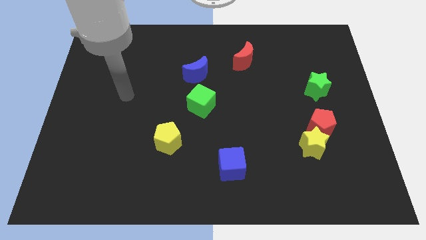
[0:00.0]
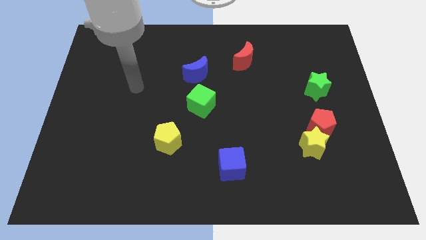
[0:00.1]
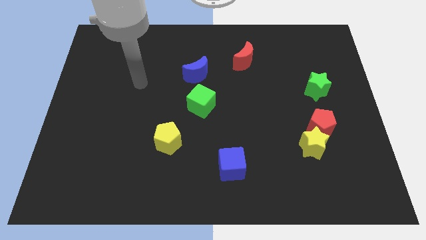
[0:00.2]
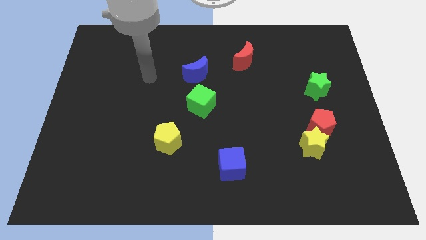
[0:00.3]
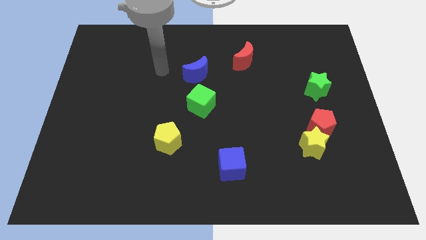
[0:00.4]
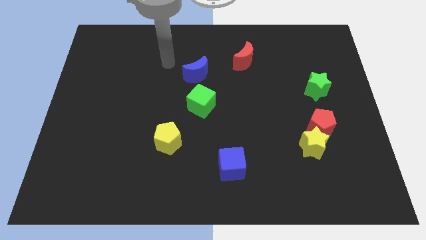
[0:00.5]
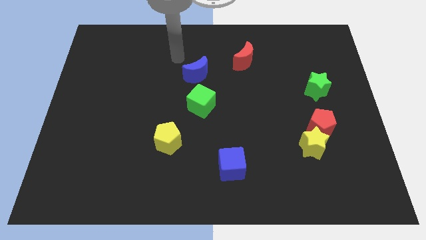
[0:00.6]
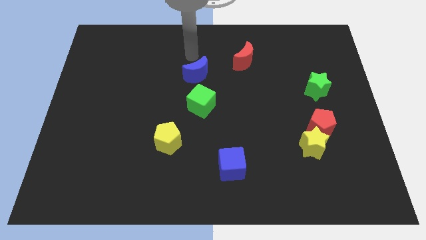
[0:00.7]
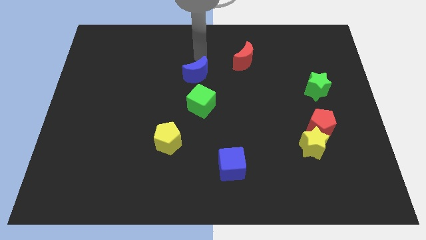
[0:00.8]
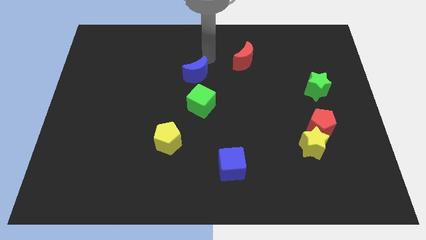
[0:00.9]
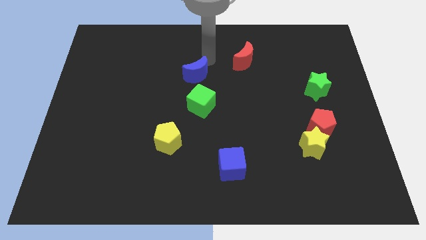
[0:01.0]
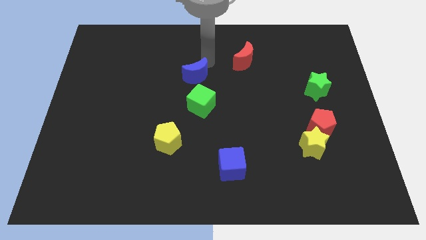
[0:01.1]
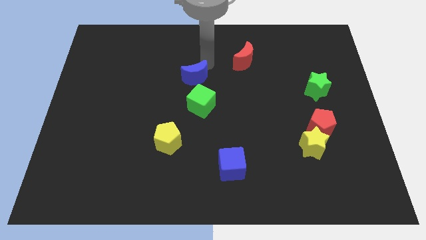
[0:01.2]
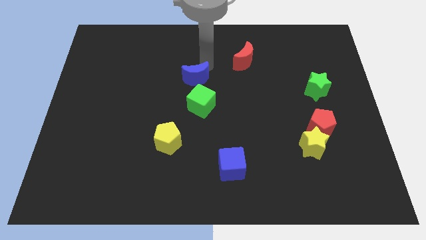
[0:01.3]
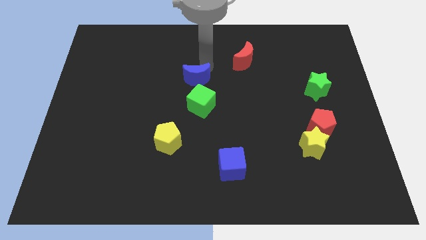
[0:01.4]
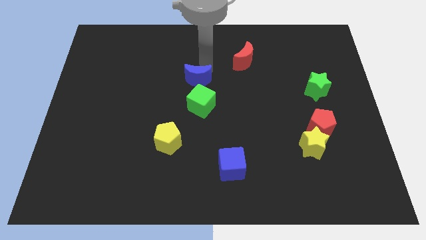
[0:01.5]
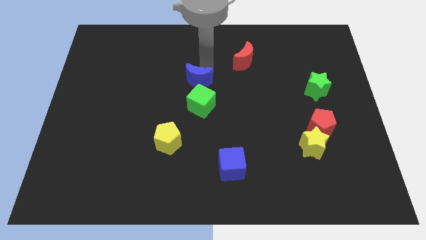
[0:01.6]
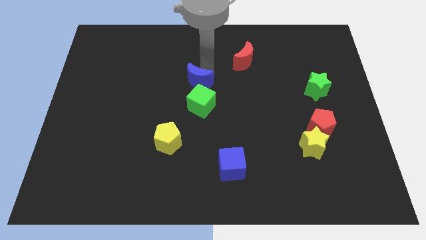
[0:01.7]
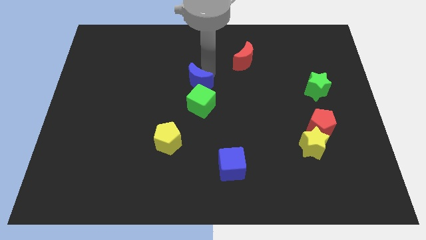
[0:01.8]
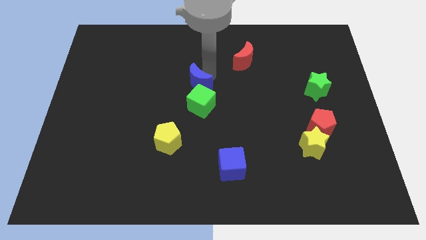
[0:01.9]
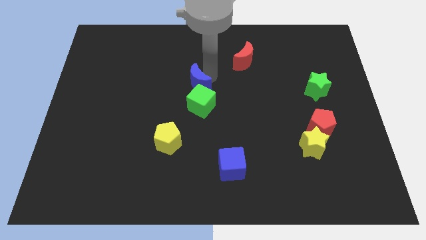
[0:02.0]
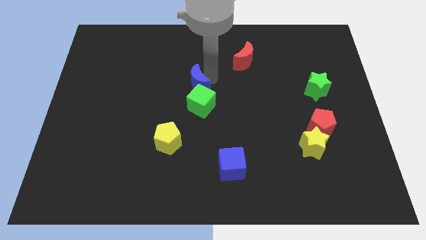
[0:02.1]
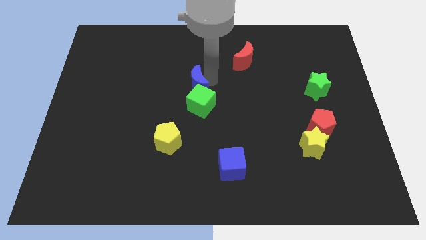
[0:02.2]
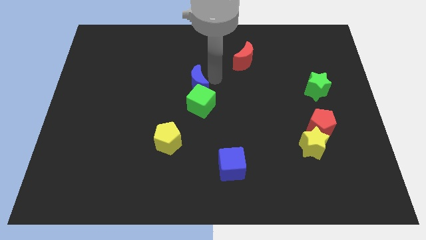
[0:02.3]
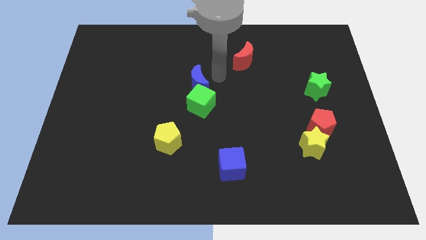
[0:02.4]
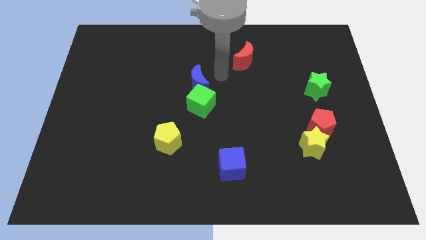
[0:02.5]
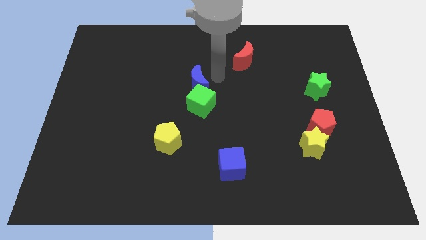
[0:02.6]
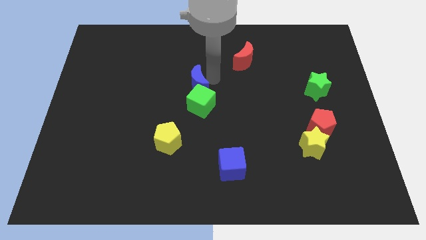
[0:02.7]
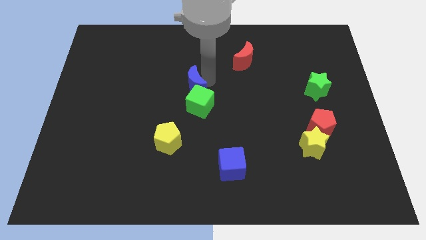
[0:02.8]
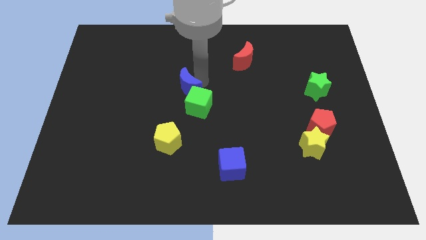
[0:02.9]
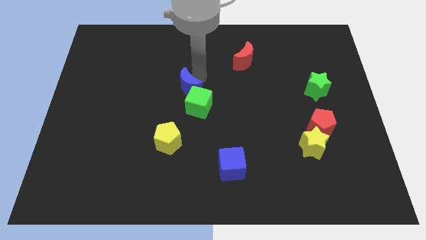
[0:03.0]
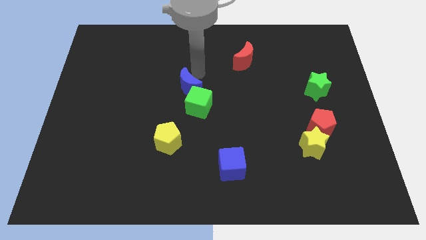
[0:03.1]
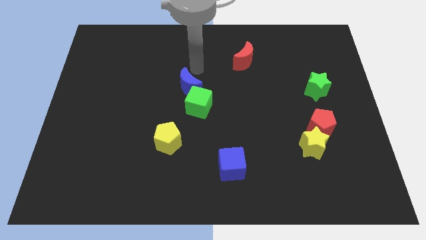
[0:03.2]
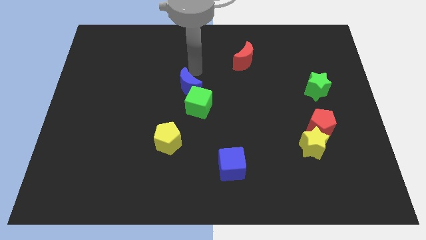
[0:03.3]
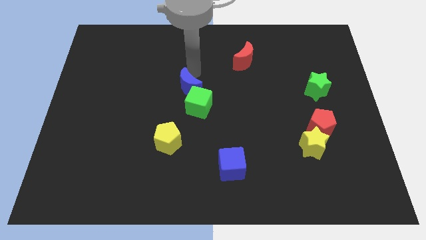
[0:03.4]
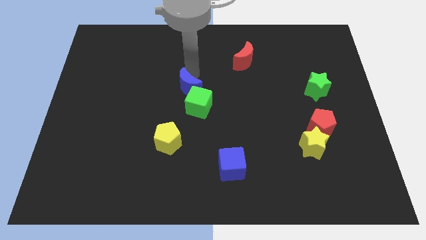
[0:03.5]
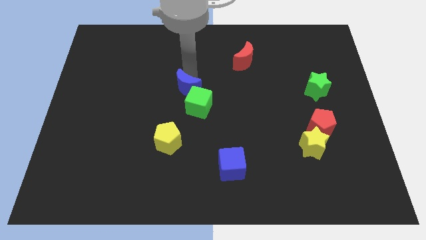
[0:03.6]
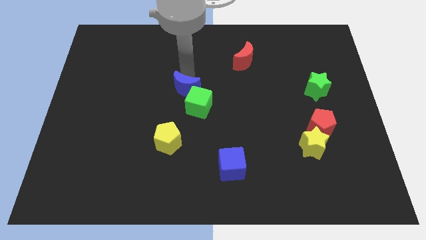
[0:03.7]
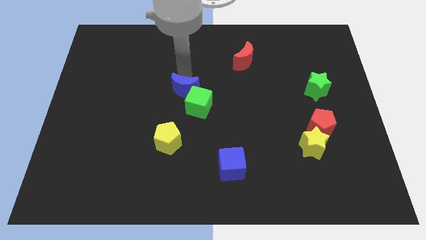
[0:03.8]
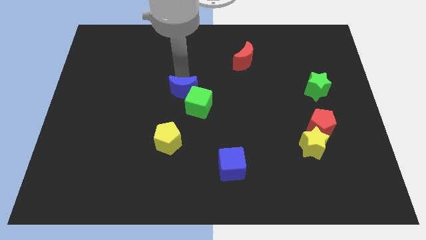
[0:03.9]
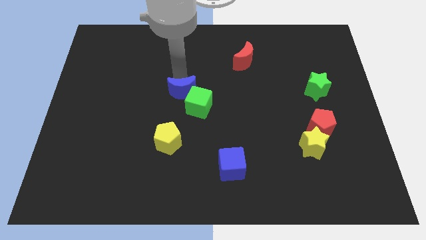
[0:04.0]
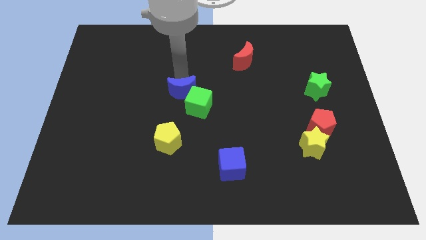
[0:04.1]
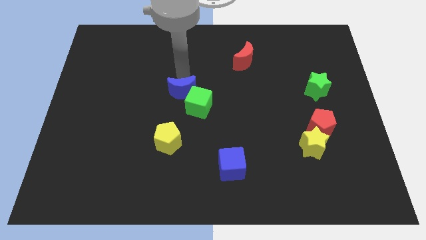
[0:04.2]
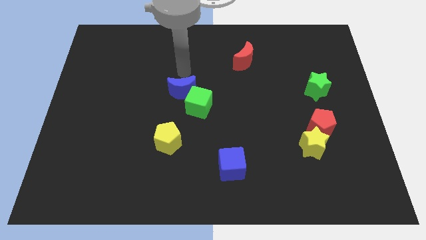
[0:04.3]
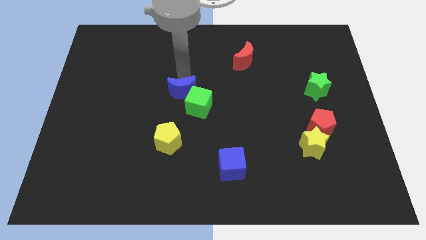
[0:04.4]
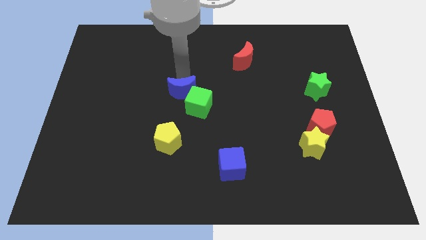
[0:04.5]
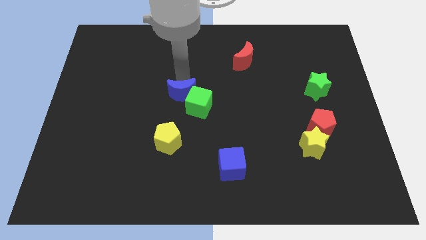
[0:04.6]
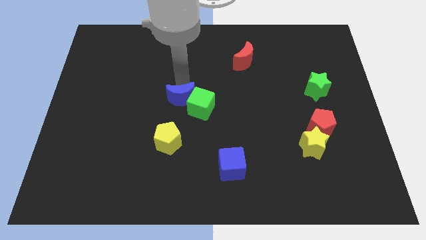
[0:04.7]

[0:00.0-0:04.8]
push the blue moon a bit downwards

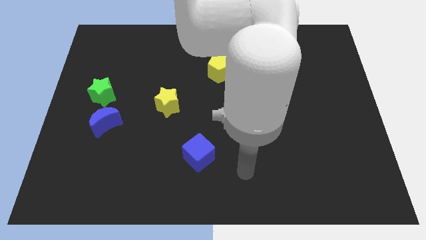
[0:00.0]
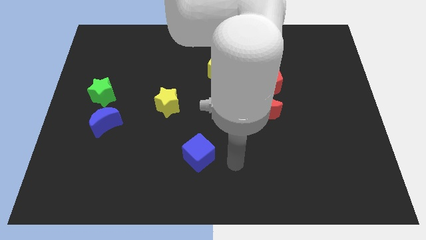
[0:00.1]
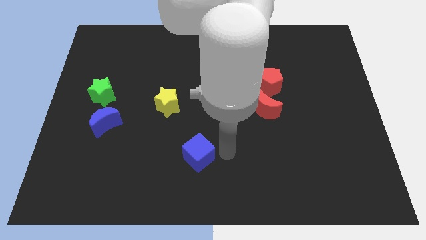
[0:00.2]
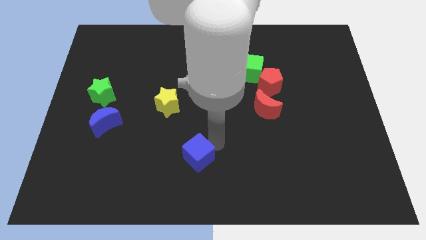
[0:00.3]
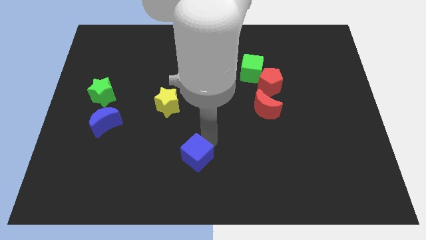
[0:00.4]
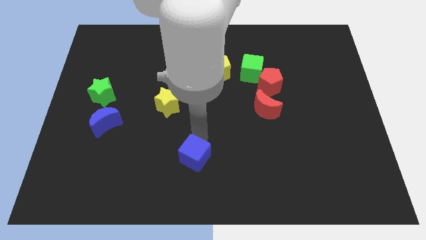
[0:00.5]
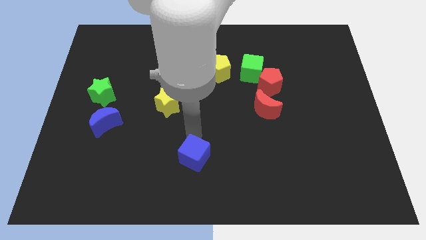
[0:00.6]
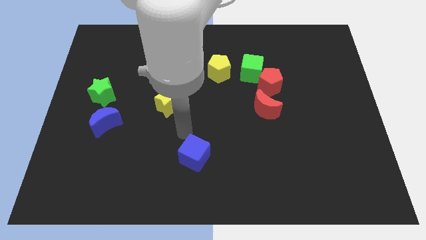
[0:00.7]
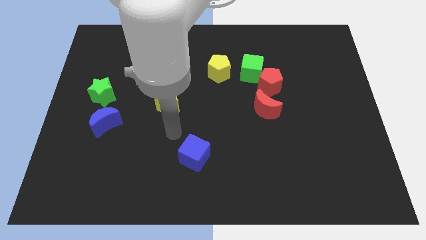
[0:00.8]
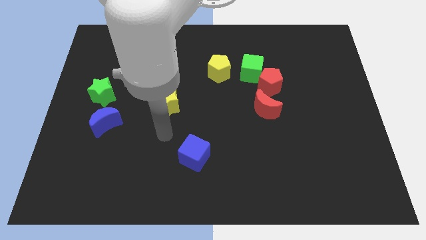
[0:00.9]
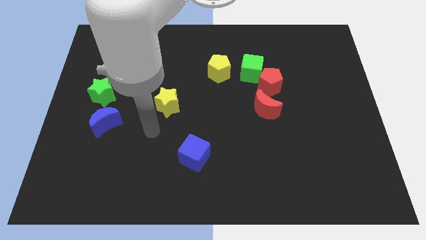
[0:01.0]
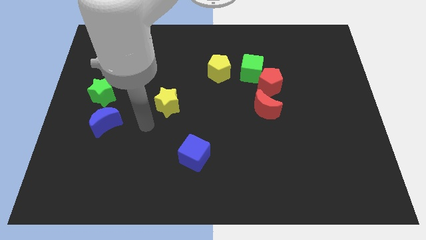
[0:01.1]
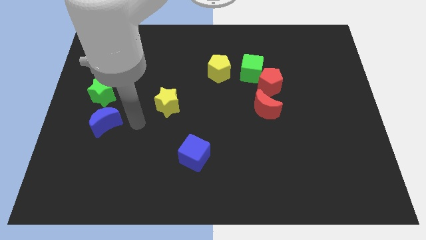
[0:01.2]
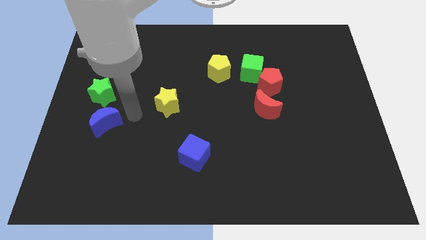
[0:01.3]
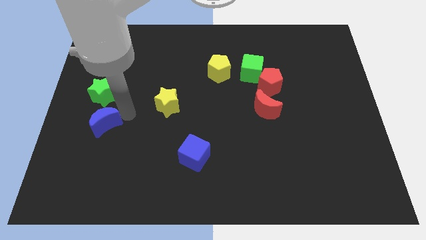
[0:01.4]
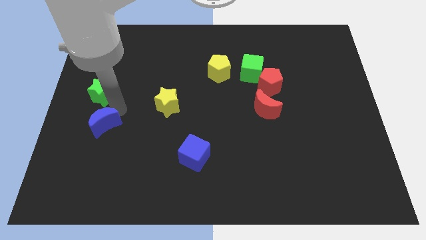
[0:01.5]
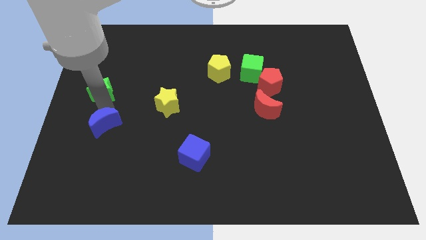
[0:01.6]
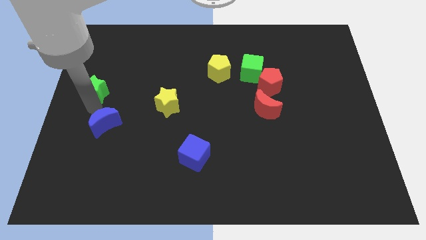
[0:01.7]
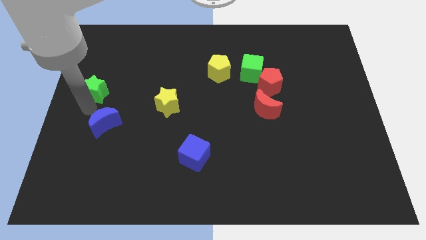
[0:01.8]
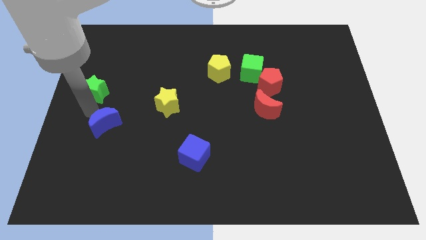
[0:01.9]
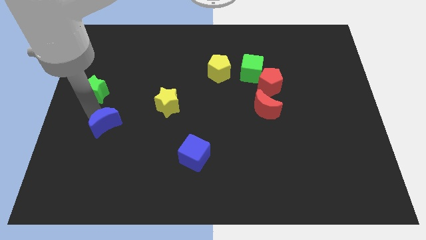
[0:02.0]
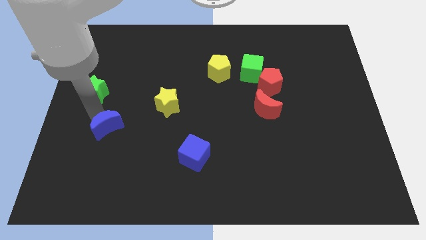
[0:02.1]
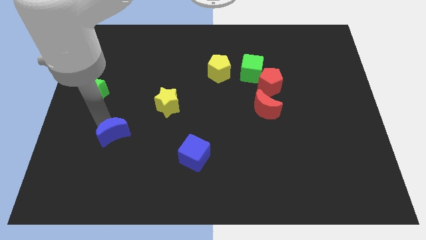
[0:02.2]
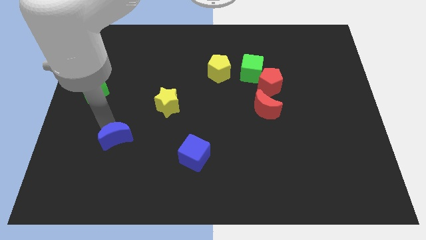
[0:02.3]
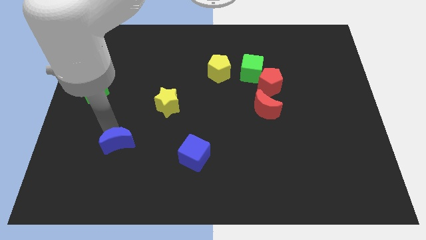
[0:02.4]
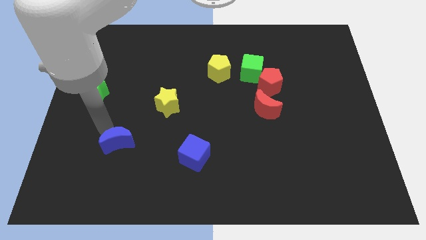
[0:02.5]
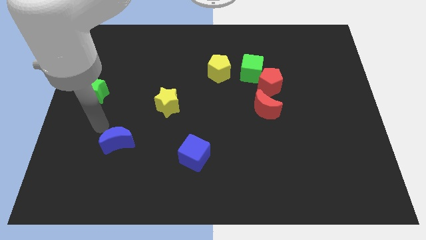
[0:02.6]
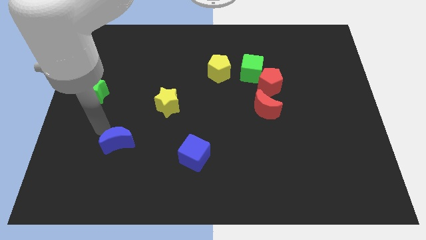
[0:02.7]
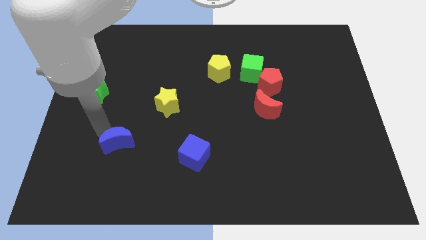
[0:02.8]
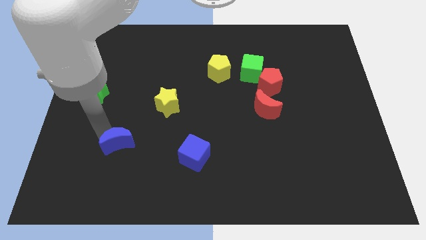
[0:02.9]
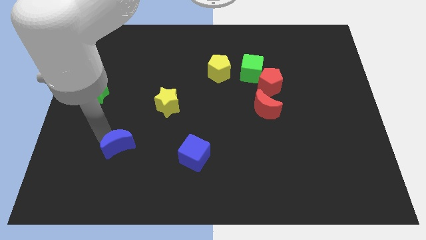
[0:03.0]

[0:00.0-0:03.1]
slide the blue moon a little bit down and right diagonally

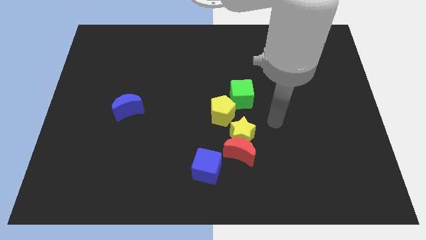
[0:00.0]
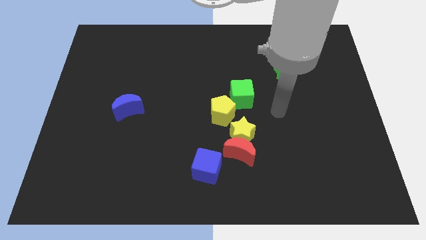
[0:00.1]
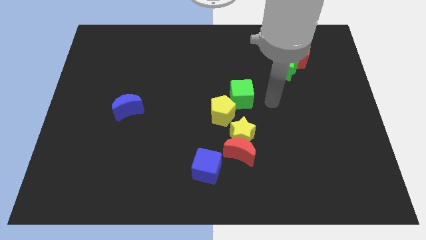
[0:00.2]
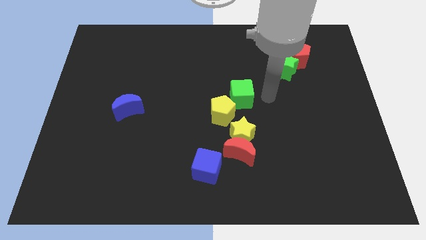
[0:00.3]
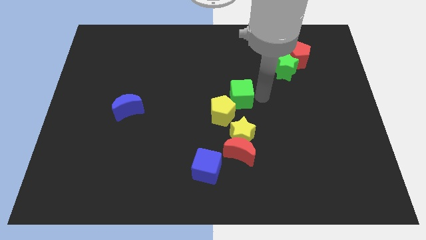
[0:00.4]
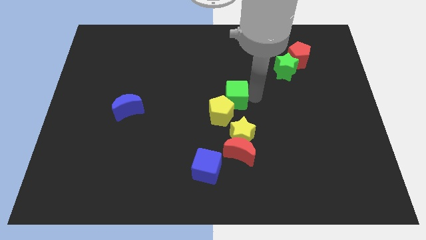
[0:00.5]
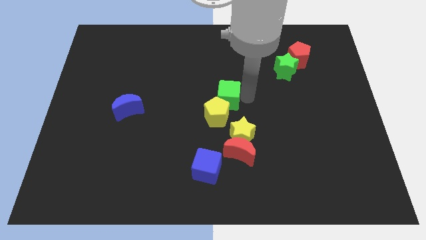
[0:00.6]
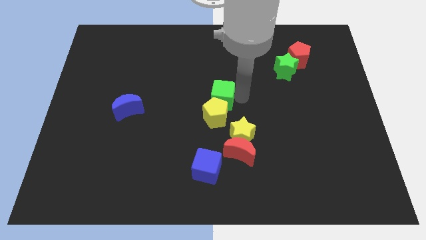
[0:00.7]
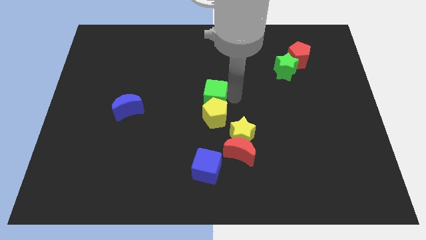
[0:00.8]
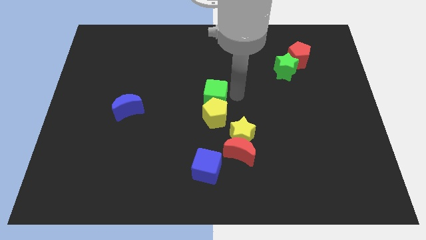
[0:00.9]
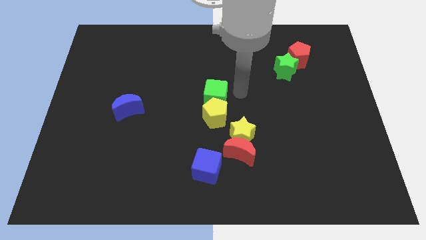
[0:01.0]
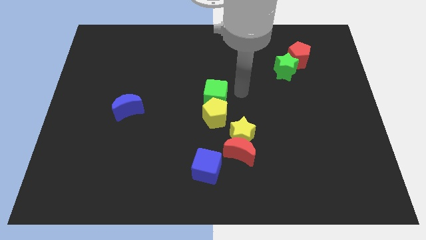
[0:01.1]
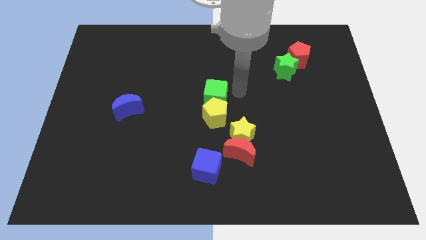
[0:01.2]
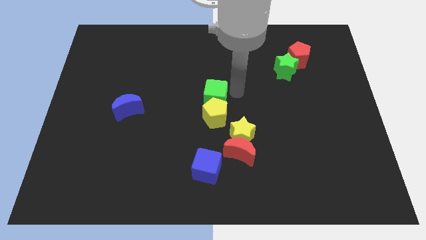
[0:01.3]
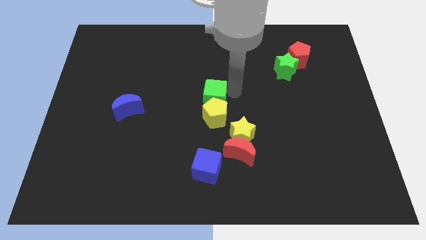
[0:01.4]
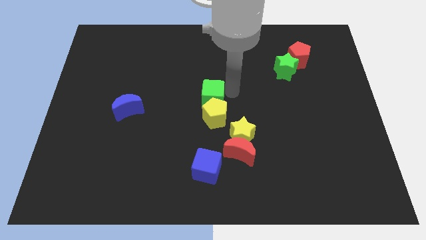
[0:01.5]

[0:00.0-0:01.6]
move the green cube to the left somewhat
